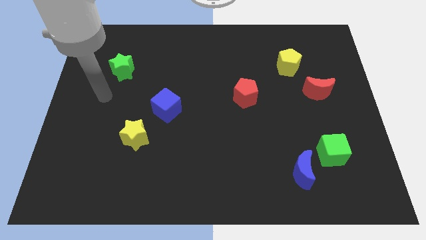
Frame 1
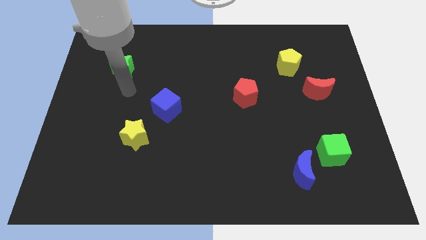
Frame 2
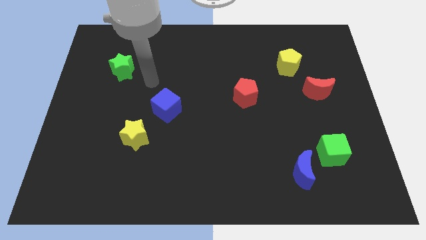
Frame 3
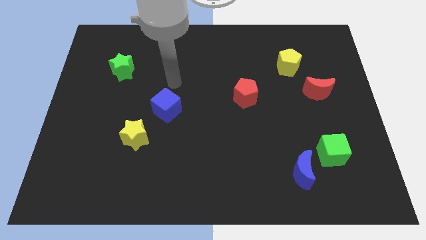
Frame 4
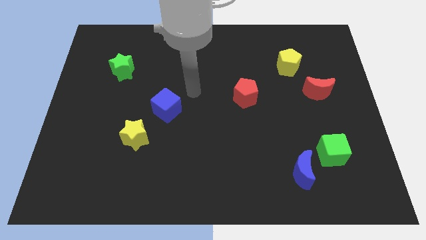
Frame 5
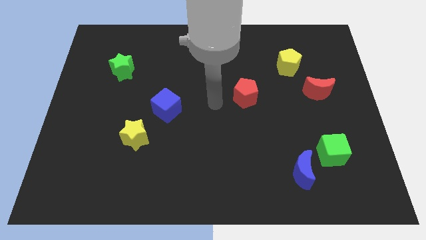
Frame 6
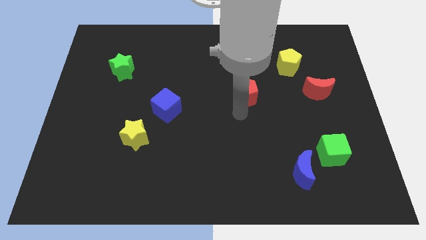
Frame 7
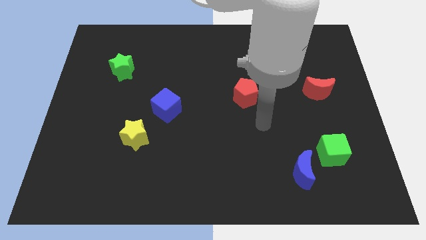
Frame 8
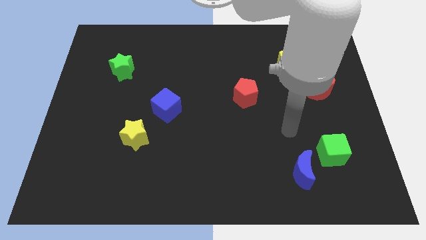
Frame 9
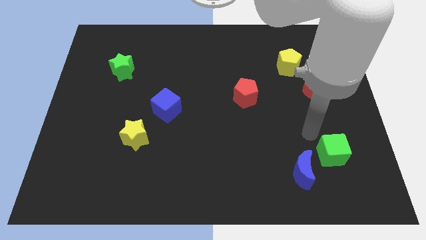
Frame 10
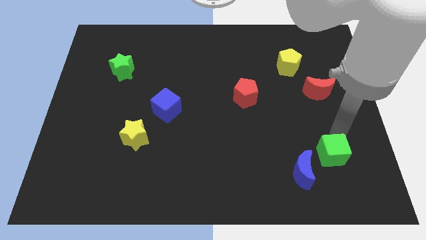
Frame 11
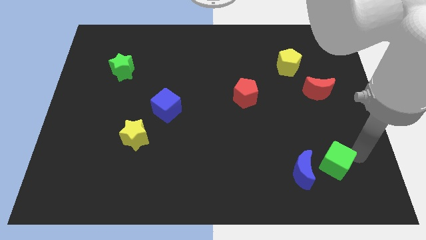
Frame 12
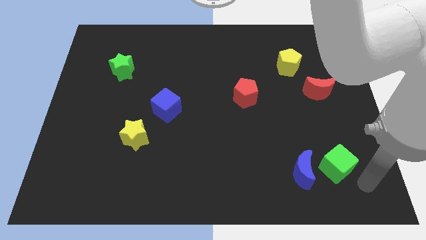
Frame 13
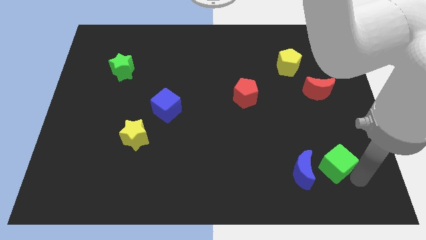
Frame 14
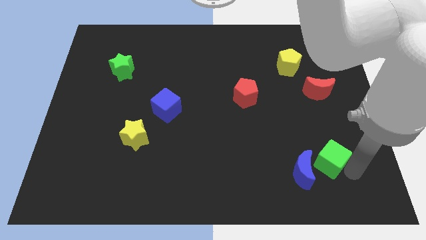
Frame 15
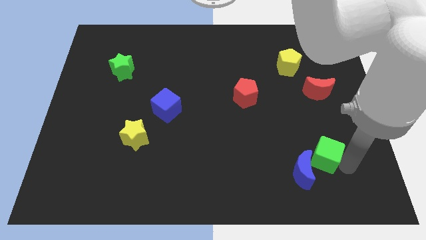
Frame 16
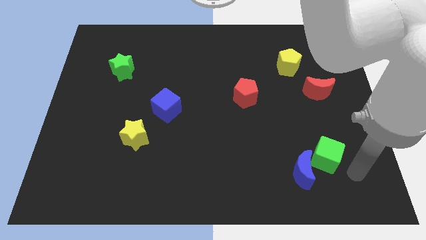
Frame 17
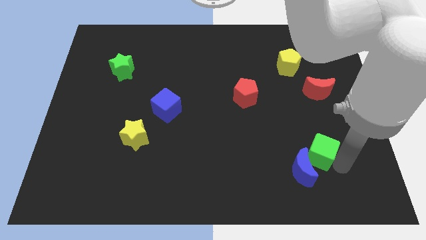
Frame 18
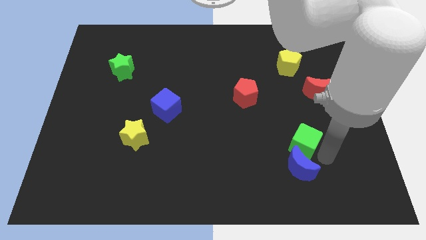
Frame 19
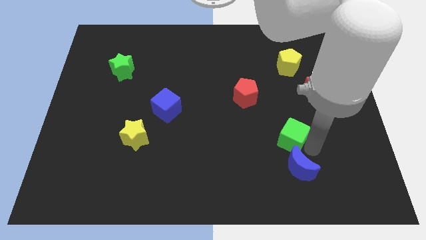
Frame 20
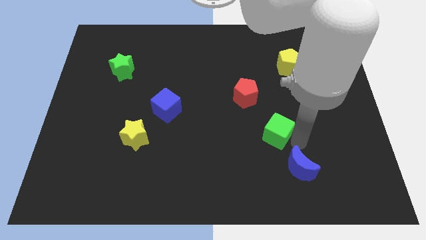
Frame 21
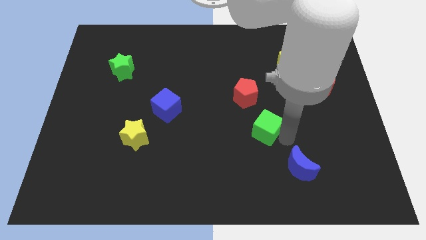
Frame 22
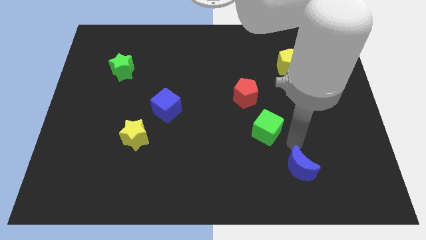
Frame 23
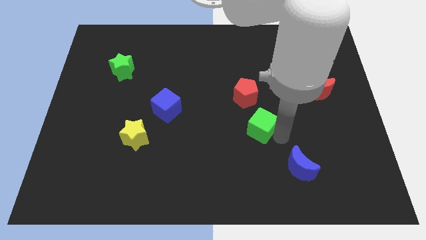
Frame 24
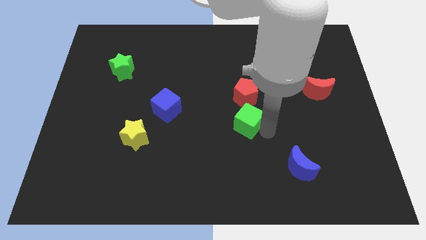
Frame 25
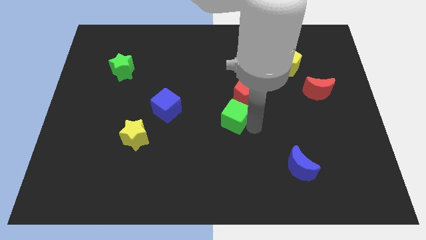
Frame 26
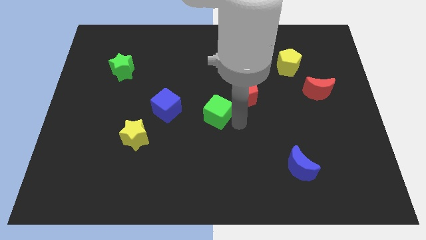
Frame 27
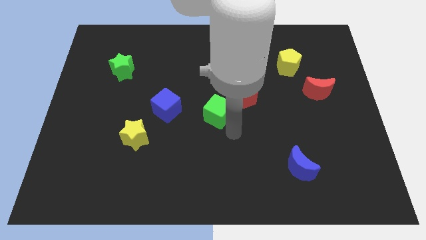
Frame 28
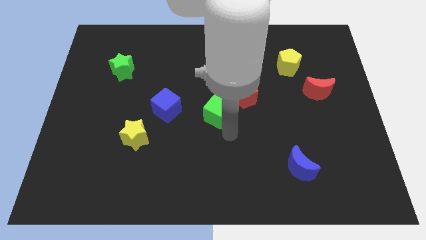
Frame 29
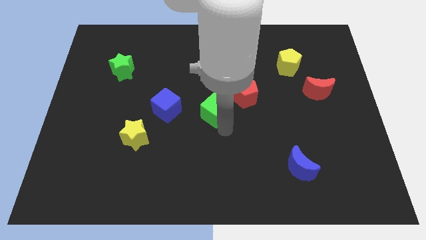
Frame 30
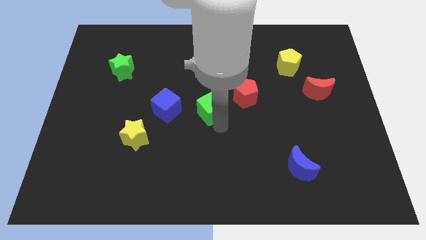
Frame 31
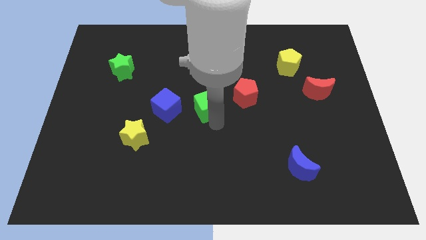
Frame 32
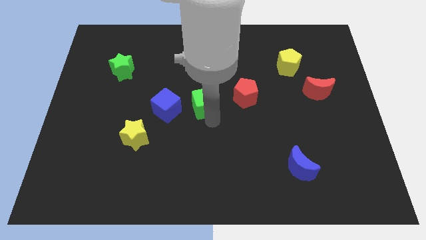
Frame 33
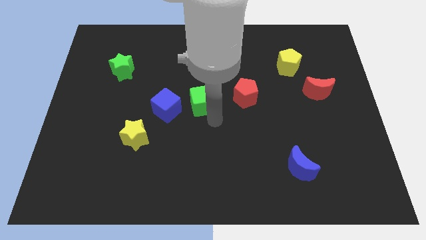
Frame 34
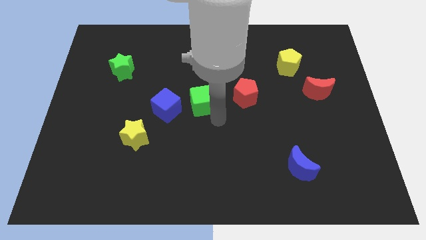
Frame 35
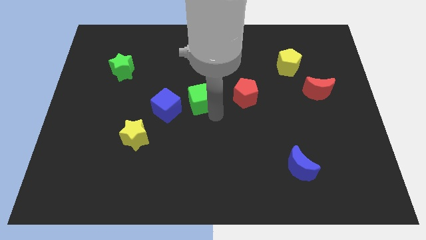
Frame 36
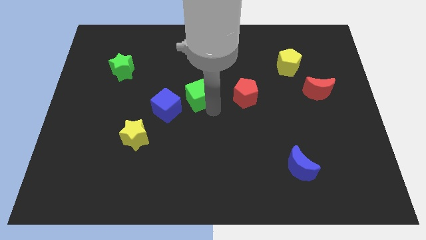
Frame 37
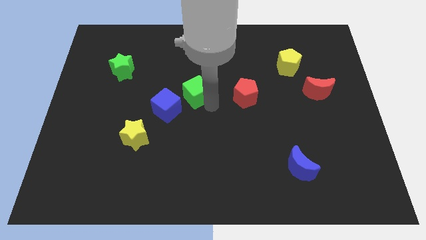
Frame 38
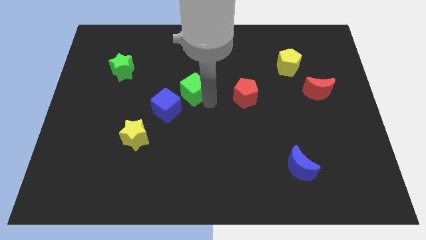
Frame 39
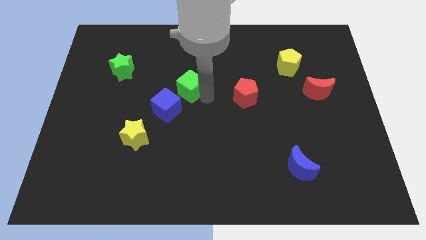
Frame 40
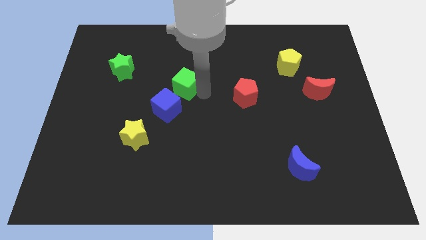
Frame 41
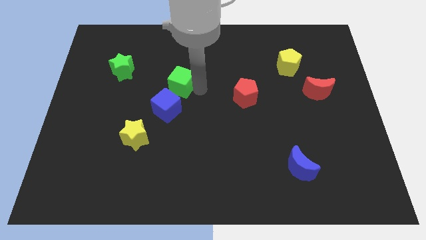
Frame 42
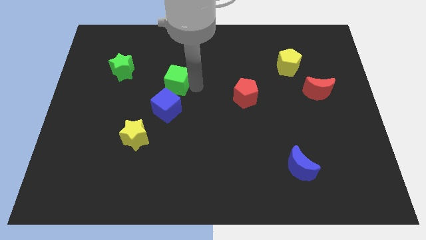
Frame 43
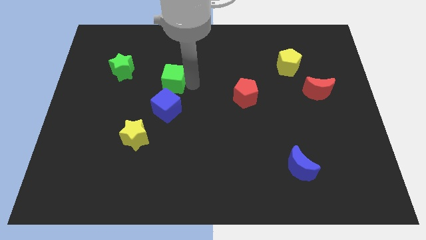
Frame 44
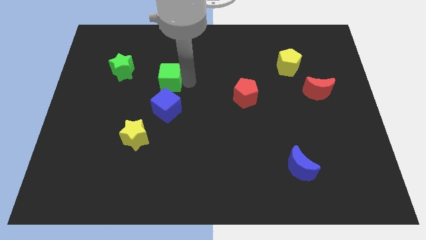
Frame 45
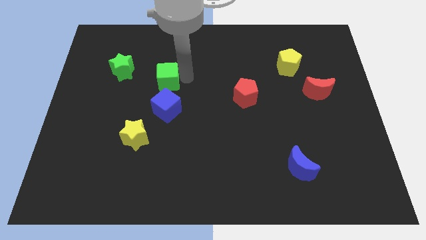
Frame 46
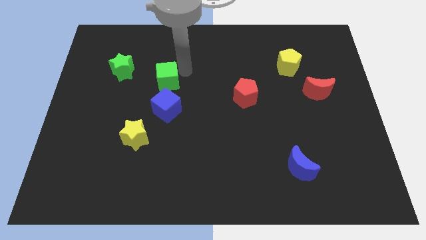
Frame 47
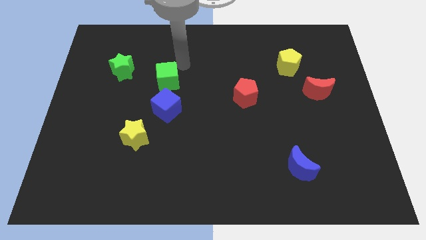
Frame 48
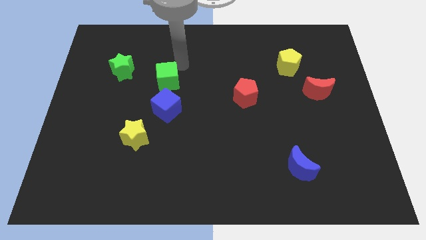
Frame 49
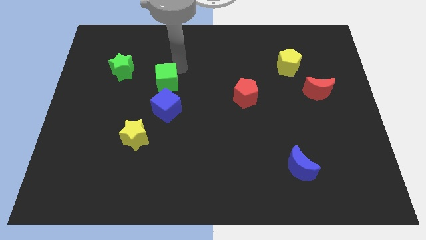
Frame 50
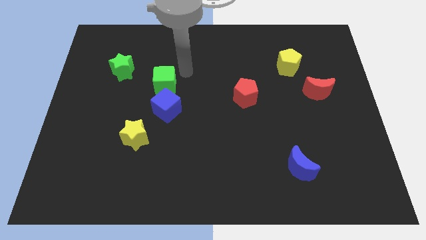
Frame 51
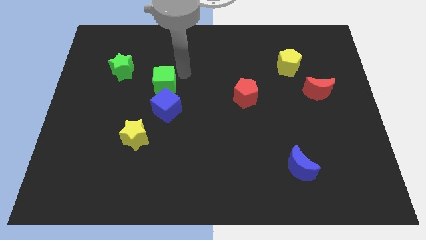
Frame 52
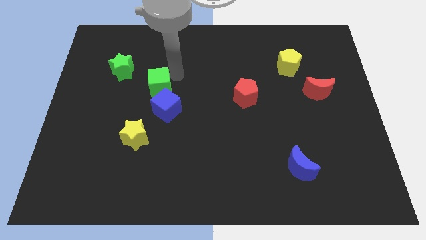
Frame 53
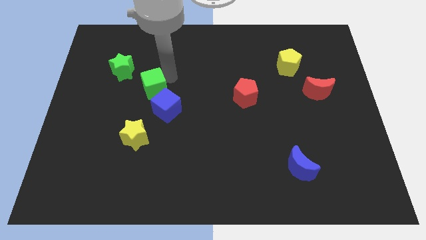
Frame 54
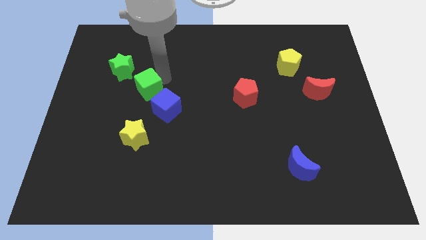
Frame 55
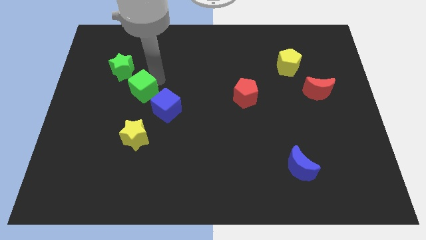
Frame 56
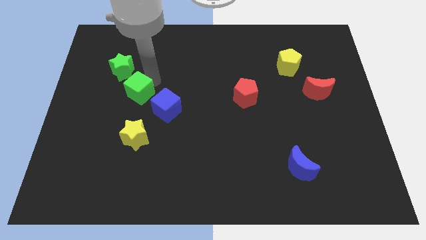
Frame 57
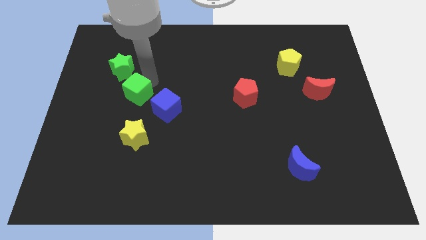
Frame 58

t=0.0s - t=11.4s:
put the green cube below the green star

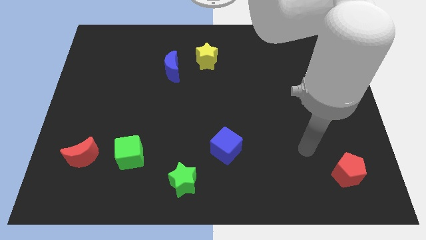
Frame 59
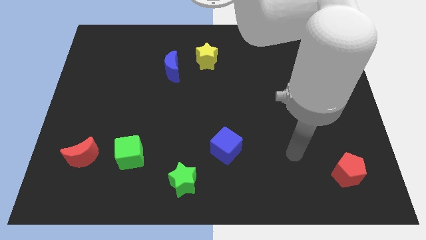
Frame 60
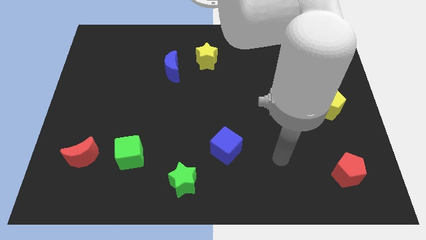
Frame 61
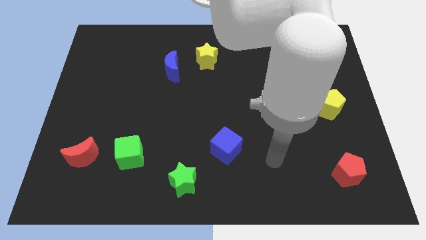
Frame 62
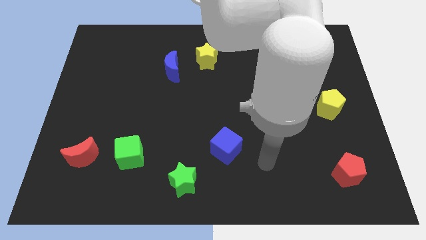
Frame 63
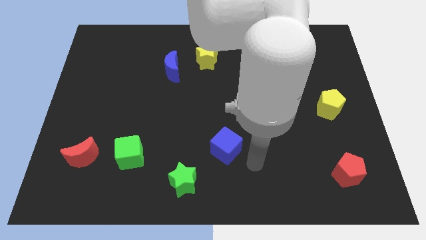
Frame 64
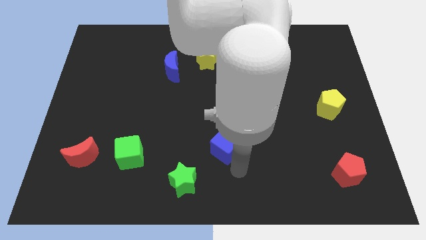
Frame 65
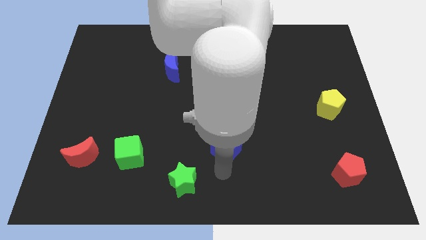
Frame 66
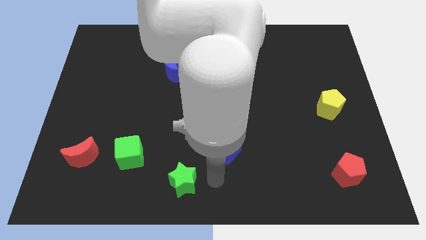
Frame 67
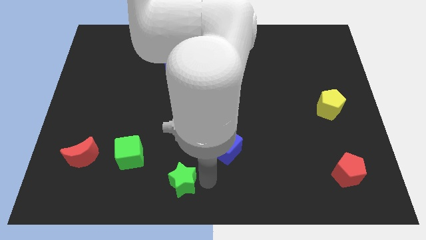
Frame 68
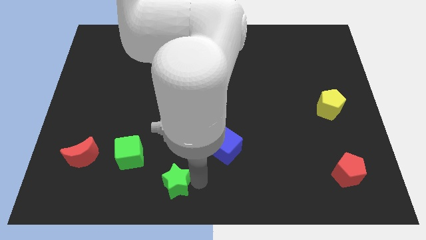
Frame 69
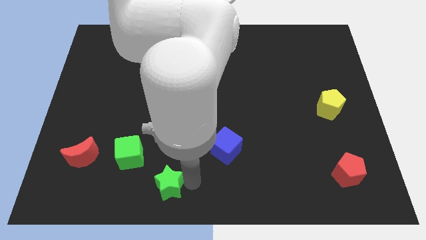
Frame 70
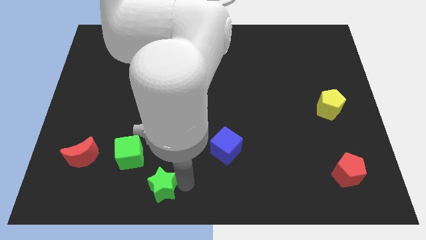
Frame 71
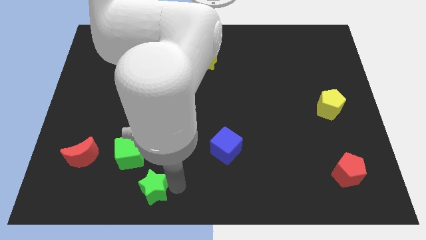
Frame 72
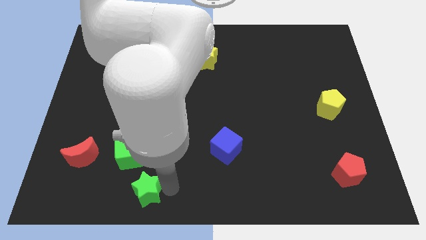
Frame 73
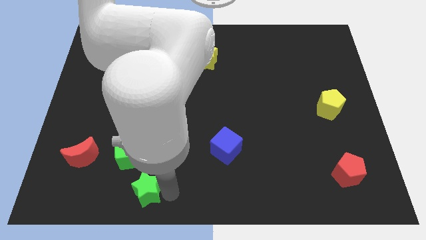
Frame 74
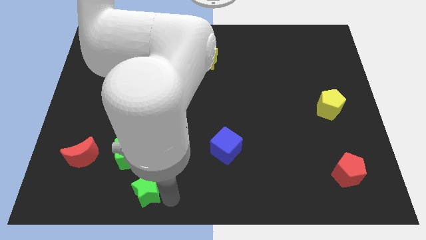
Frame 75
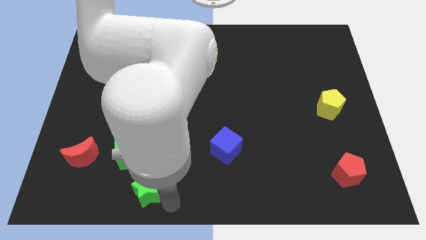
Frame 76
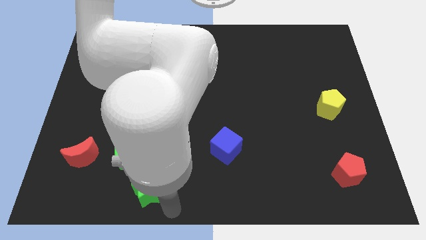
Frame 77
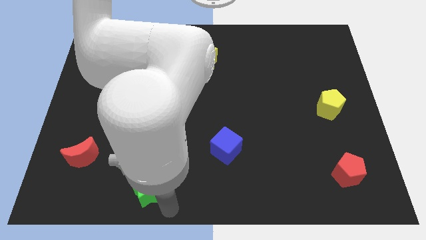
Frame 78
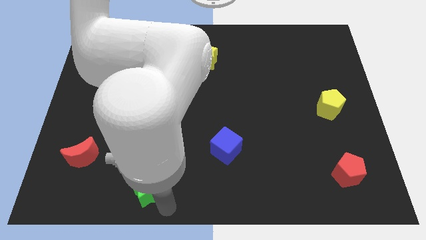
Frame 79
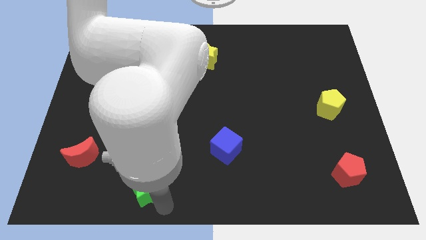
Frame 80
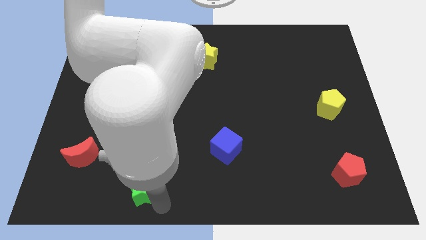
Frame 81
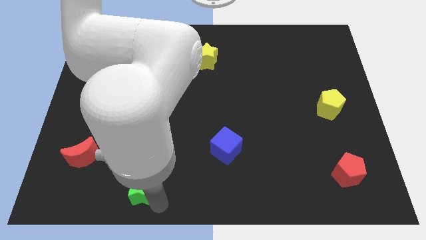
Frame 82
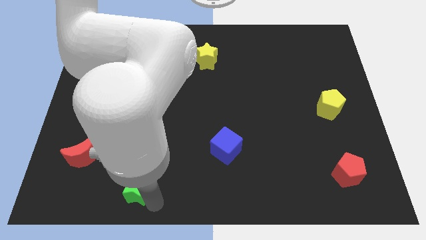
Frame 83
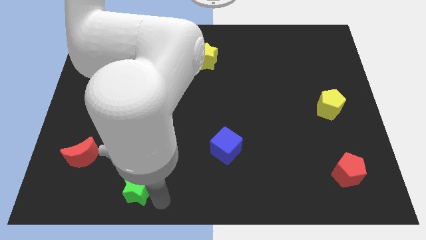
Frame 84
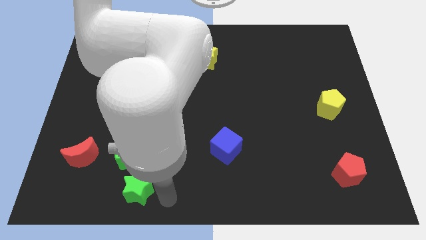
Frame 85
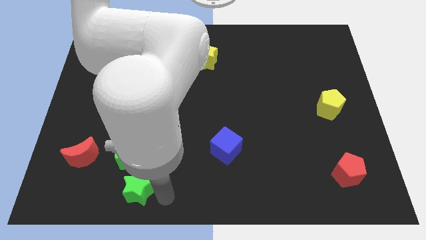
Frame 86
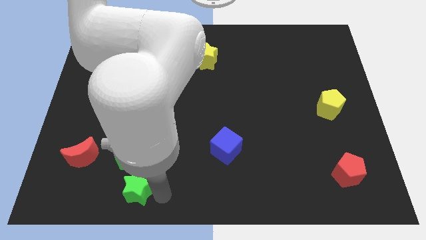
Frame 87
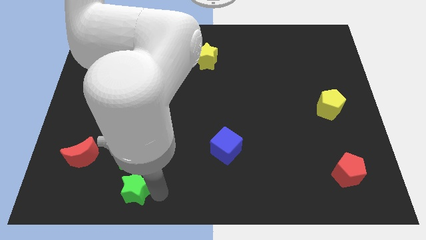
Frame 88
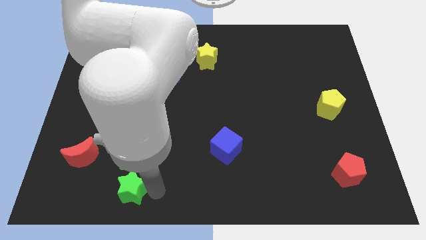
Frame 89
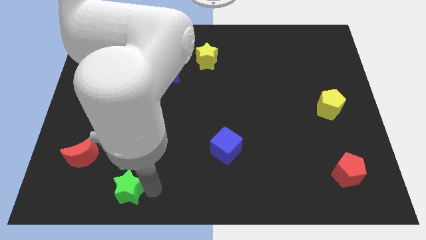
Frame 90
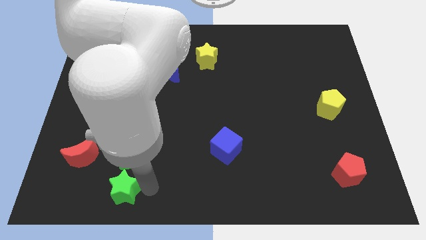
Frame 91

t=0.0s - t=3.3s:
move the green star to the bottom right of the red moon
